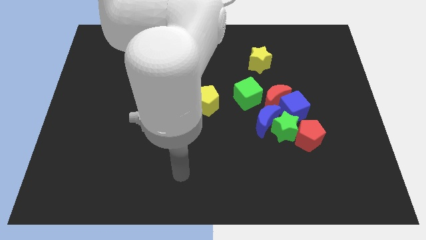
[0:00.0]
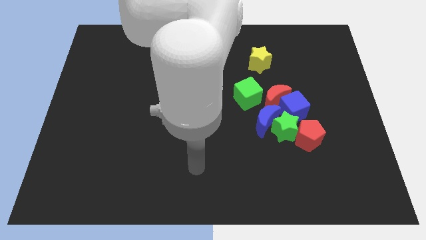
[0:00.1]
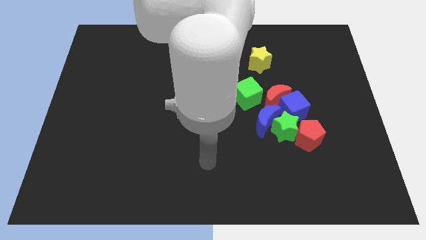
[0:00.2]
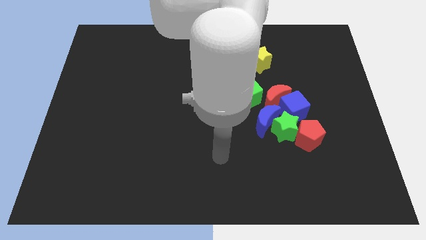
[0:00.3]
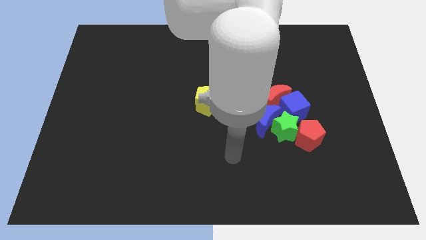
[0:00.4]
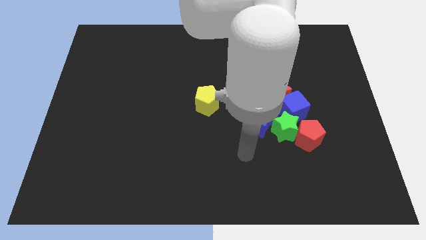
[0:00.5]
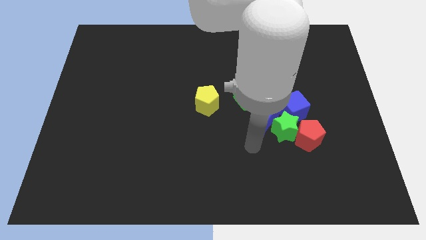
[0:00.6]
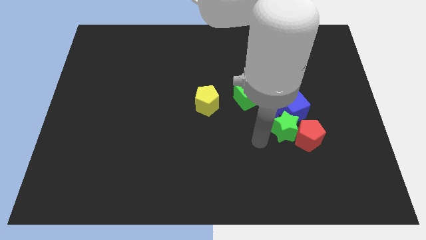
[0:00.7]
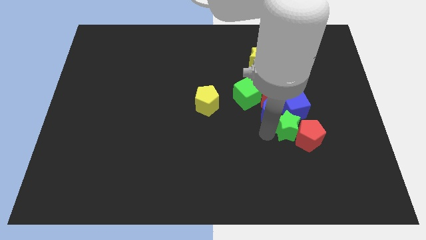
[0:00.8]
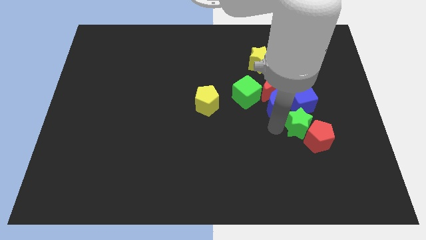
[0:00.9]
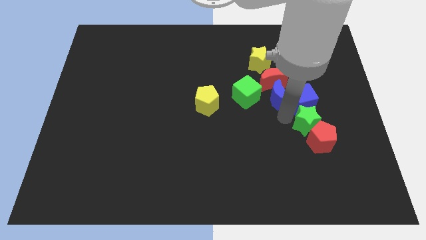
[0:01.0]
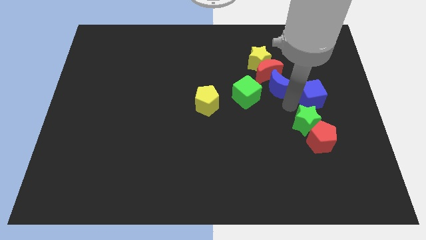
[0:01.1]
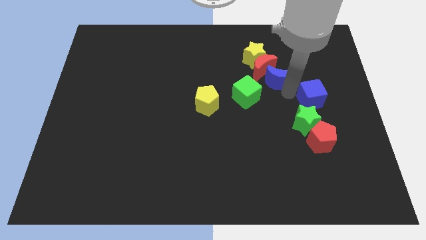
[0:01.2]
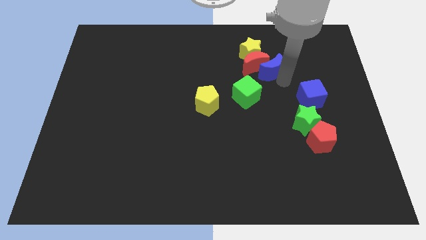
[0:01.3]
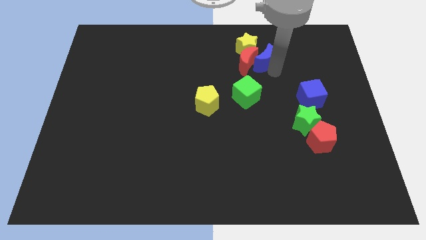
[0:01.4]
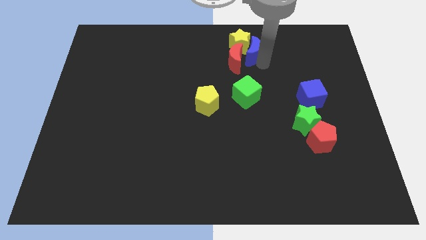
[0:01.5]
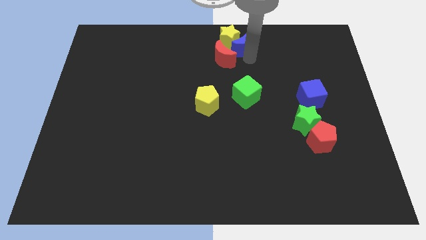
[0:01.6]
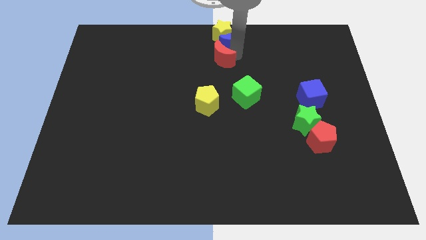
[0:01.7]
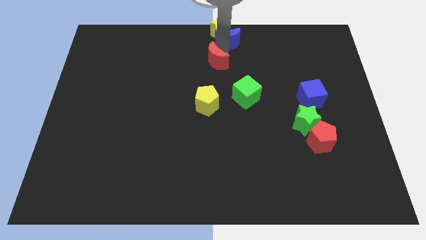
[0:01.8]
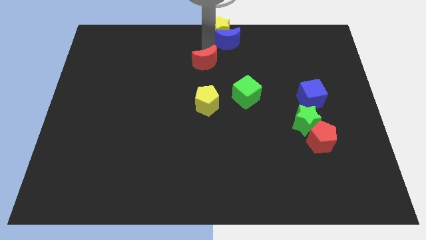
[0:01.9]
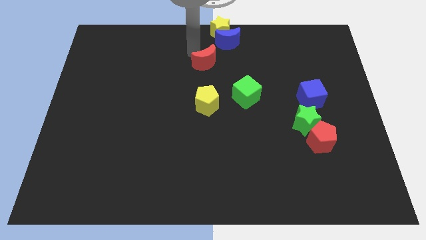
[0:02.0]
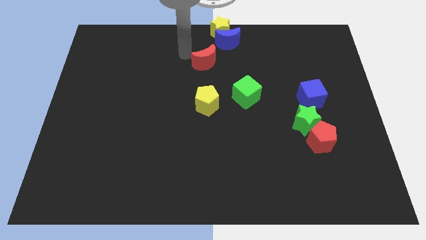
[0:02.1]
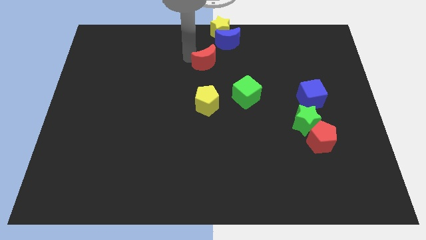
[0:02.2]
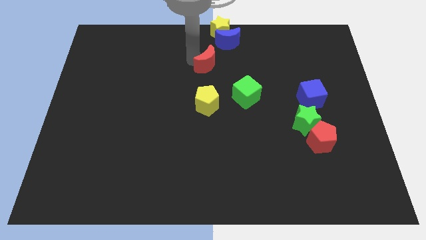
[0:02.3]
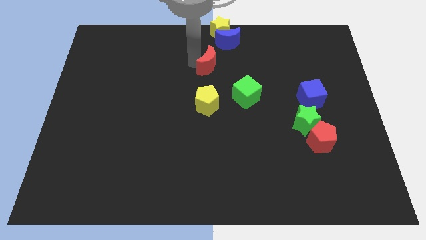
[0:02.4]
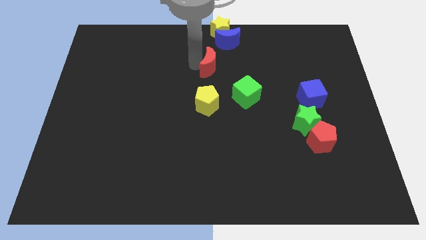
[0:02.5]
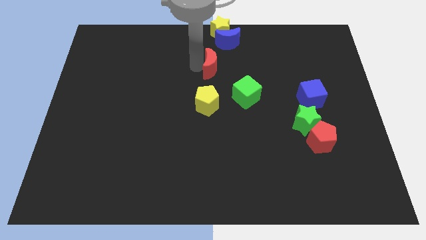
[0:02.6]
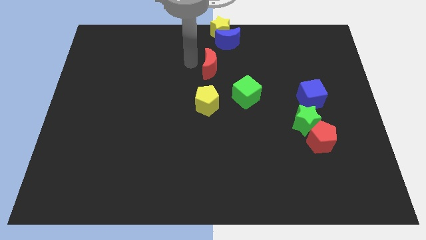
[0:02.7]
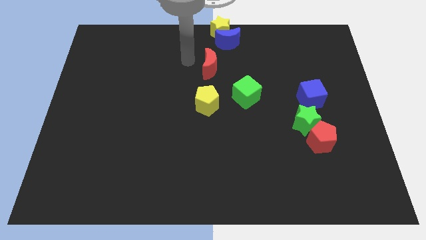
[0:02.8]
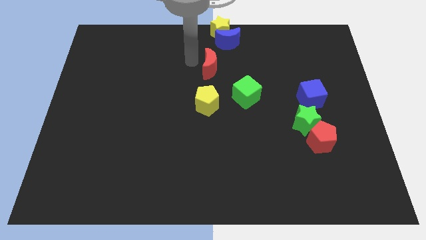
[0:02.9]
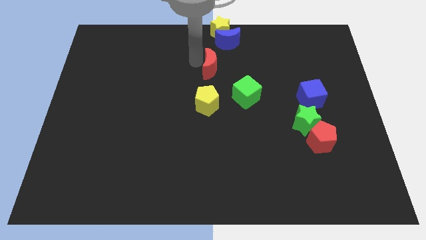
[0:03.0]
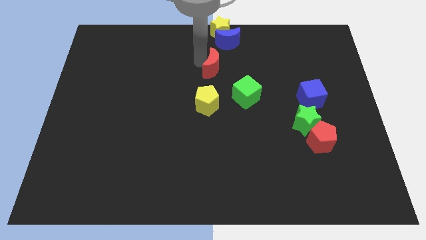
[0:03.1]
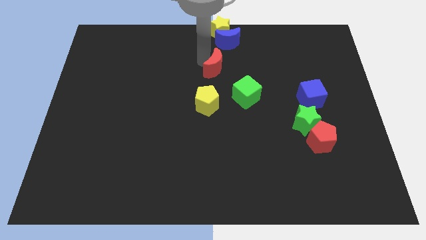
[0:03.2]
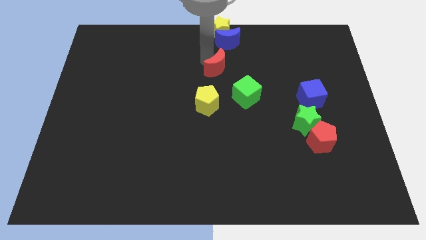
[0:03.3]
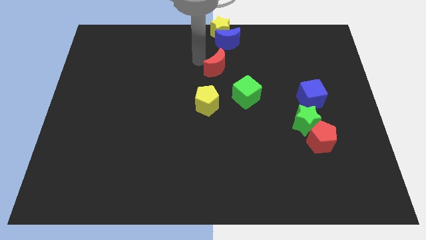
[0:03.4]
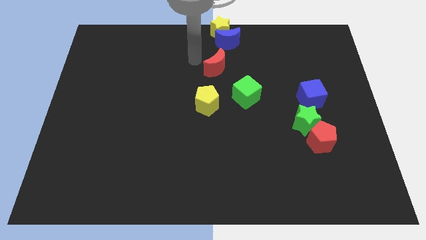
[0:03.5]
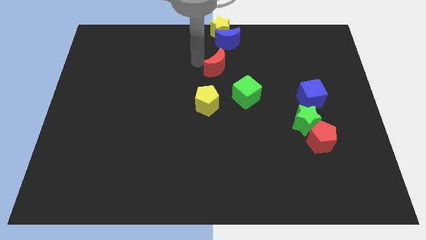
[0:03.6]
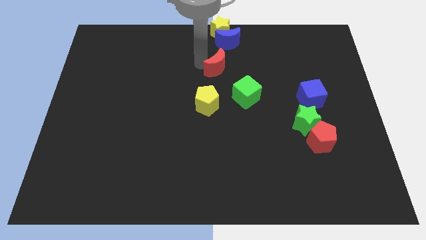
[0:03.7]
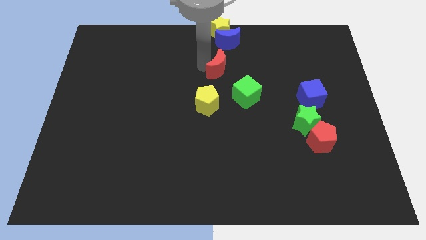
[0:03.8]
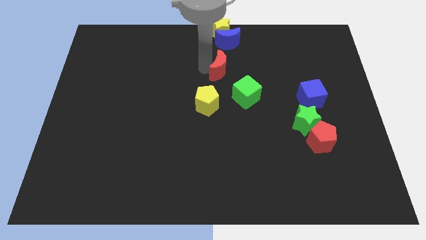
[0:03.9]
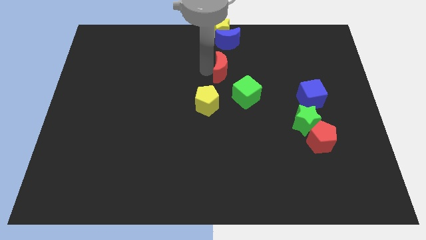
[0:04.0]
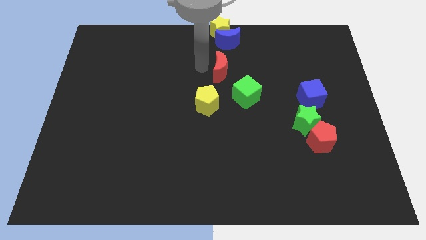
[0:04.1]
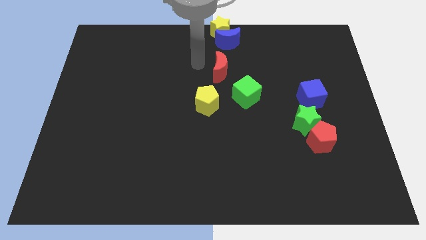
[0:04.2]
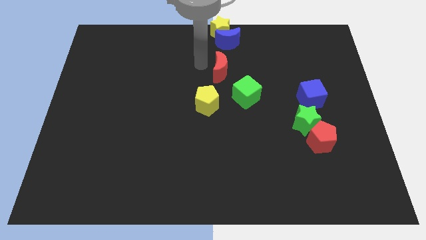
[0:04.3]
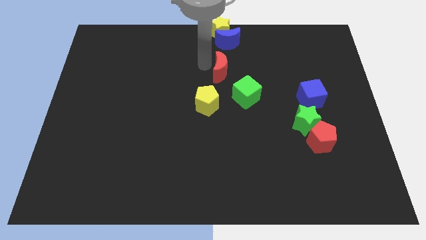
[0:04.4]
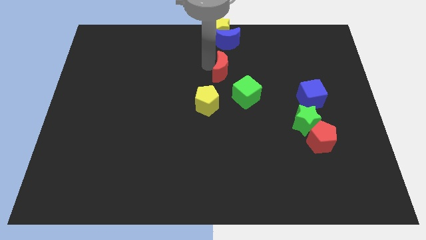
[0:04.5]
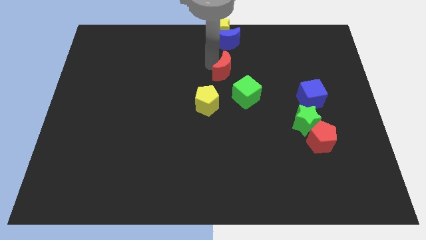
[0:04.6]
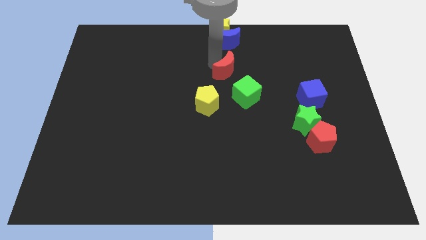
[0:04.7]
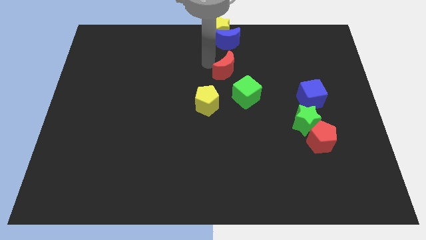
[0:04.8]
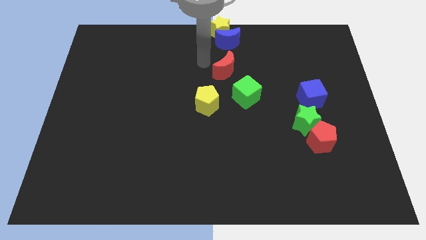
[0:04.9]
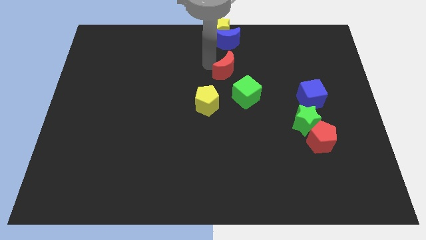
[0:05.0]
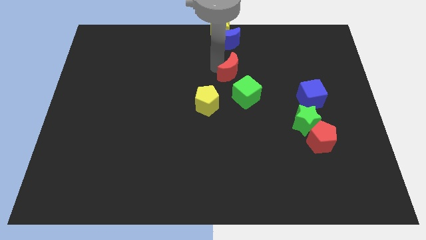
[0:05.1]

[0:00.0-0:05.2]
slide the red moon to the top right side of the yellow pentagon
